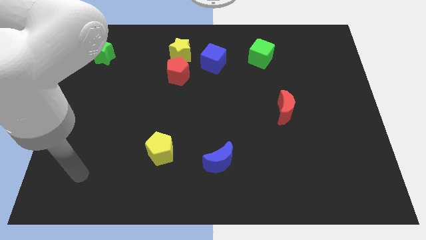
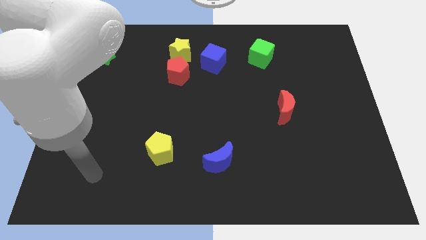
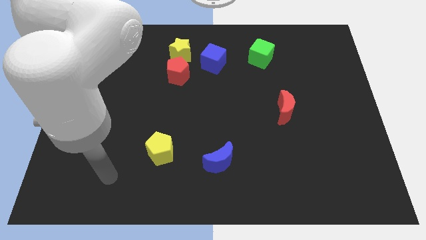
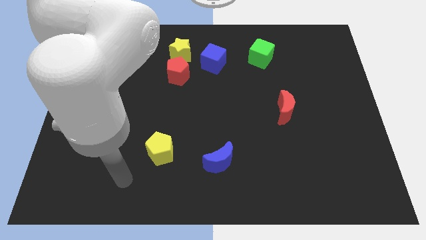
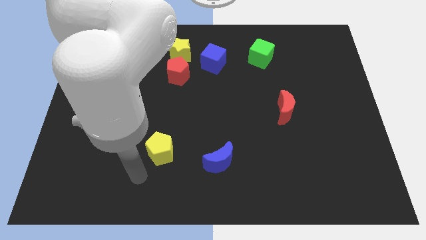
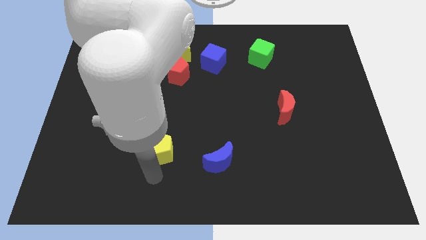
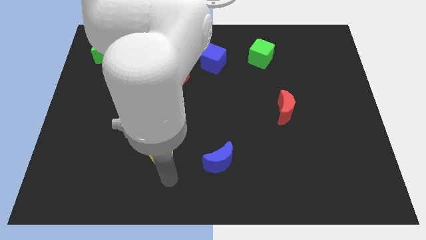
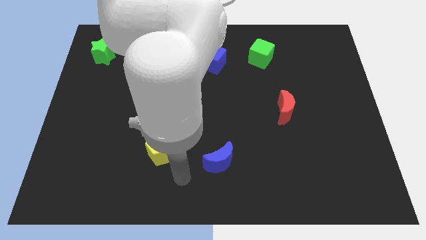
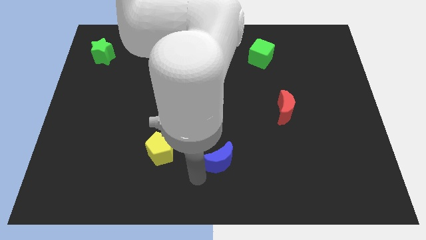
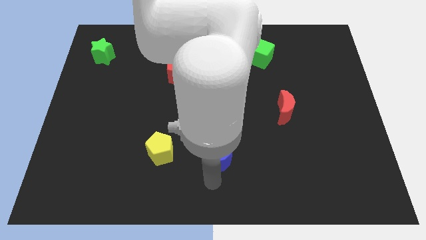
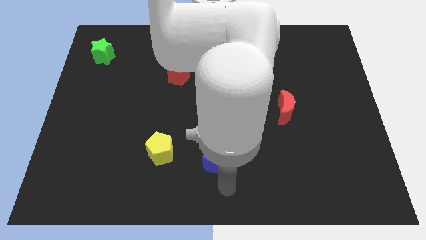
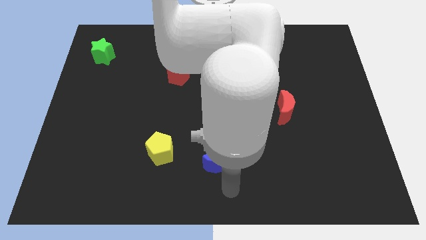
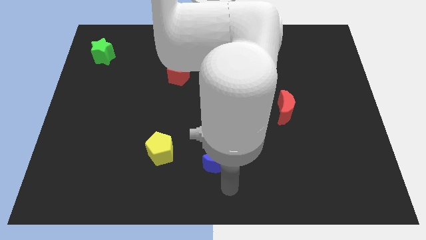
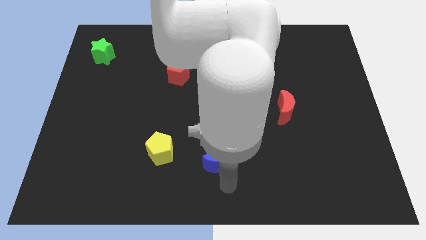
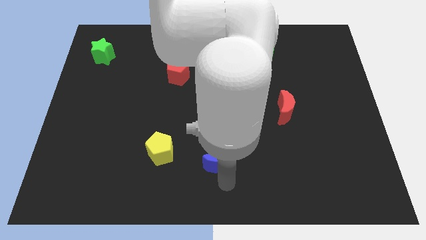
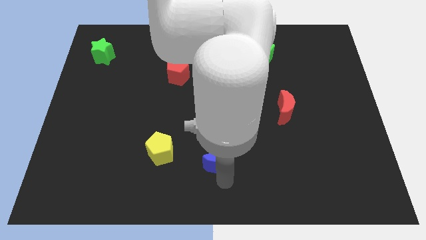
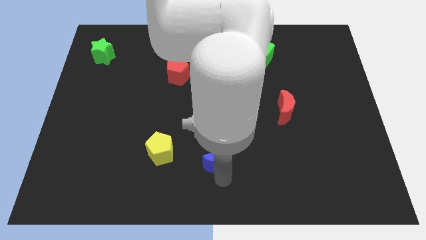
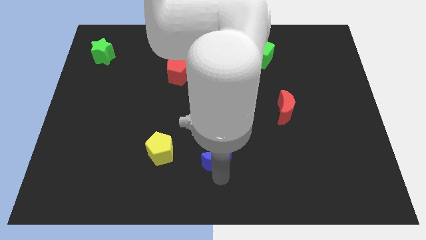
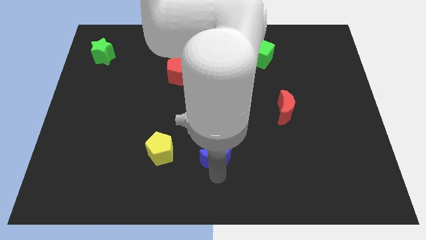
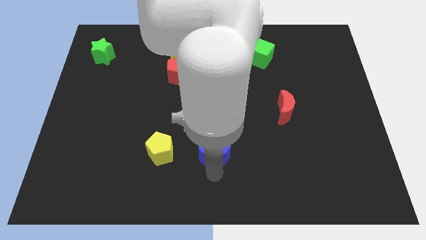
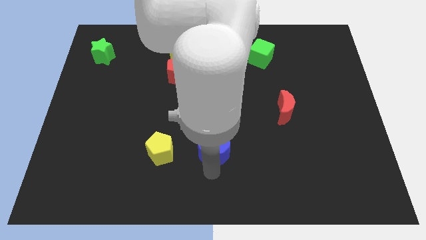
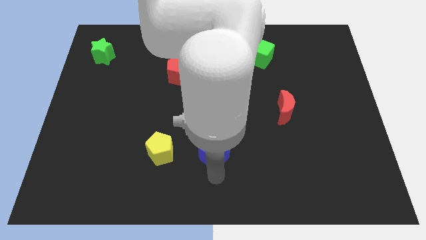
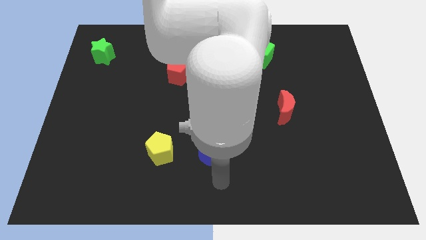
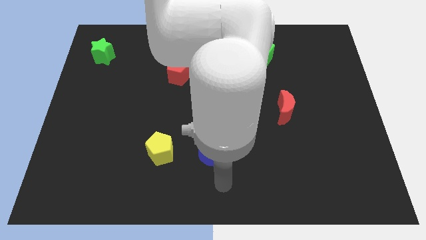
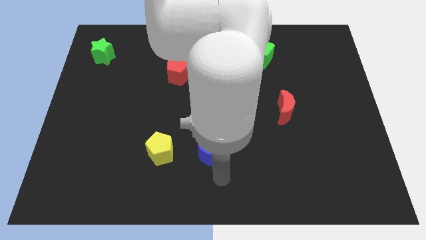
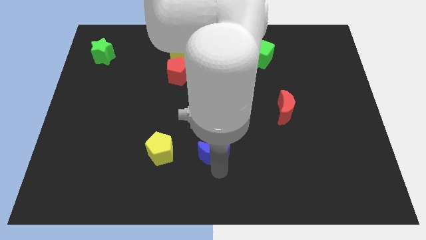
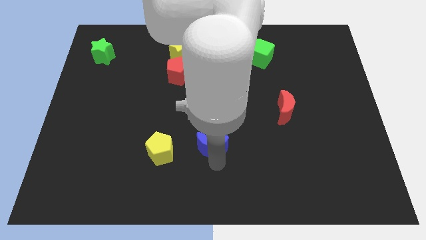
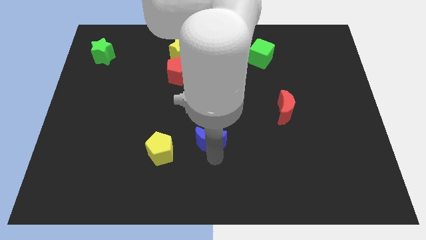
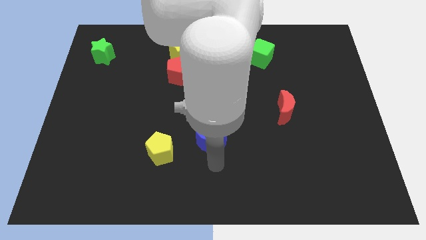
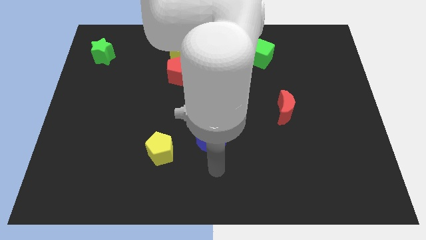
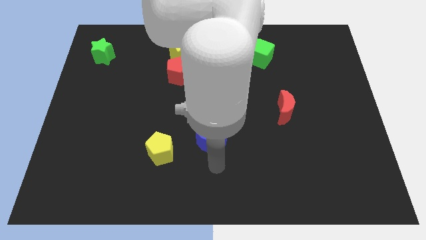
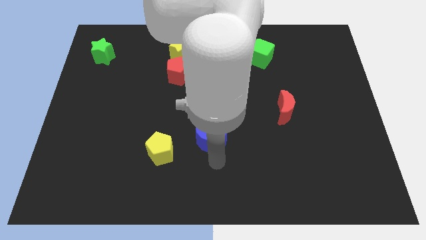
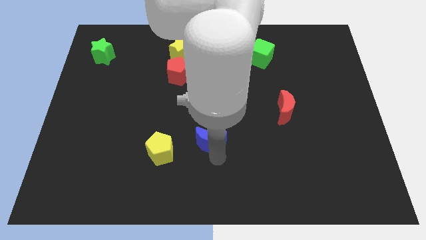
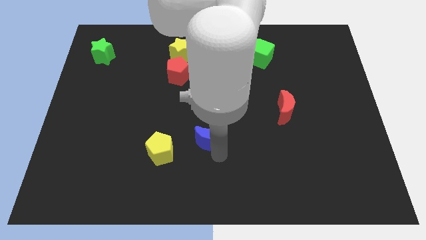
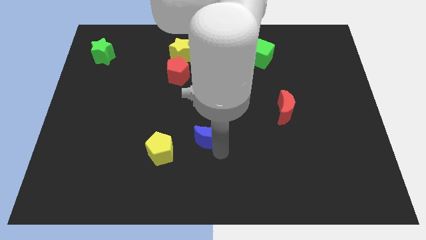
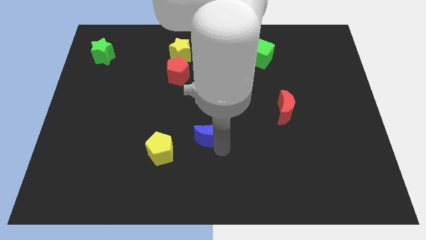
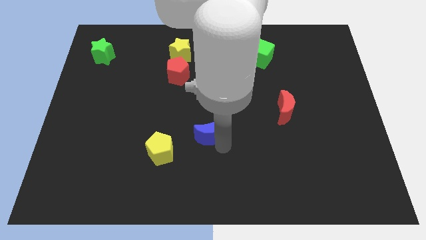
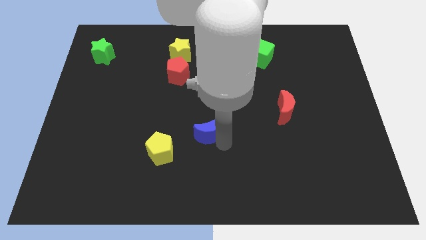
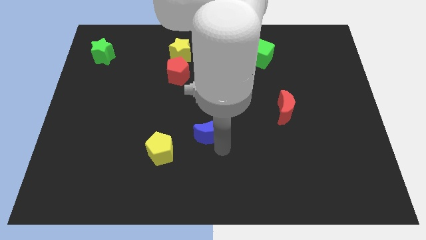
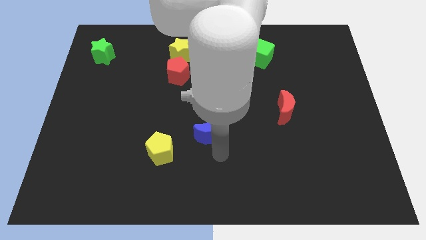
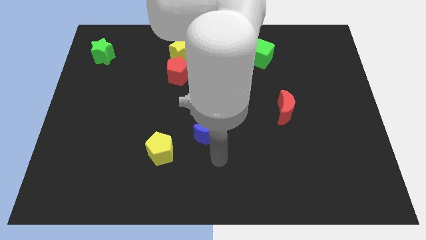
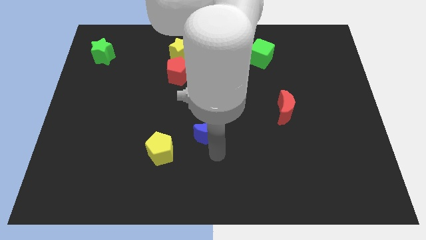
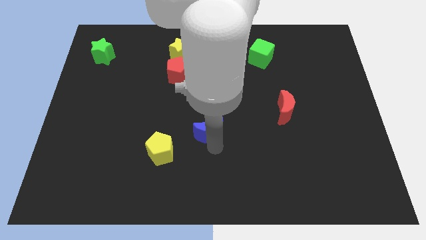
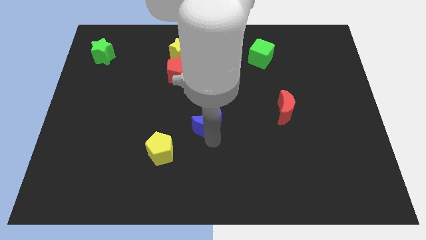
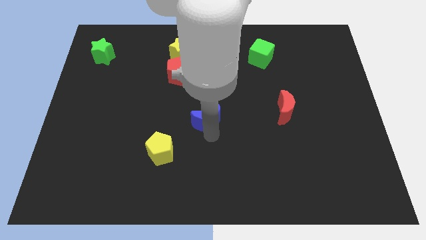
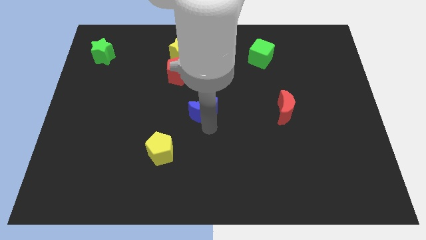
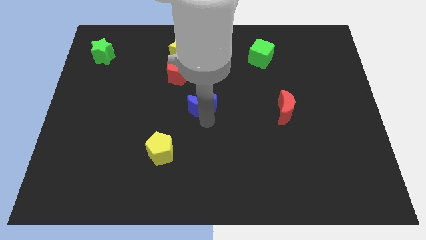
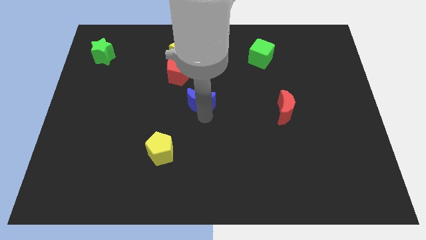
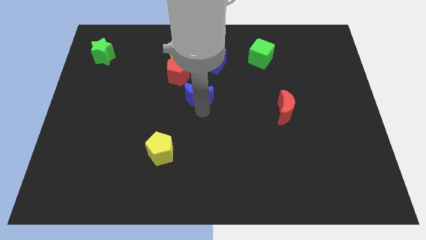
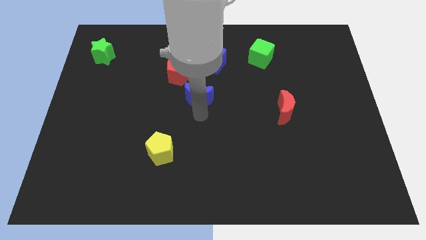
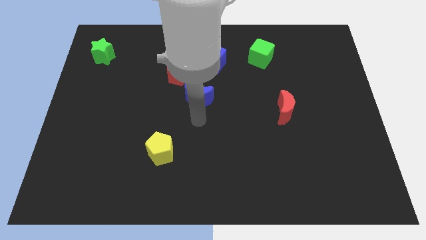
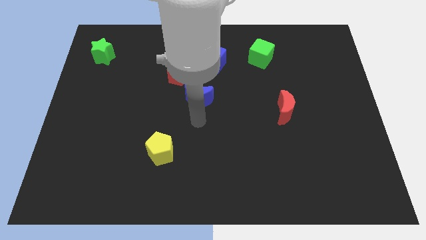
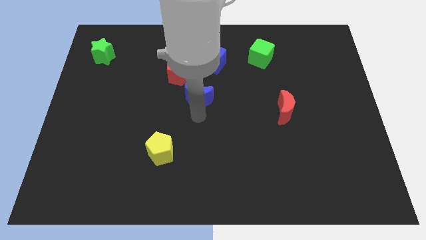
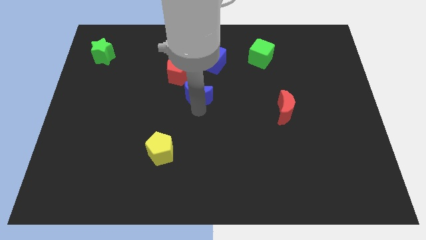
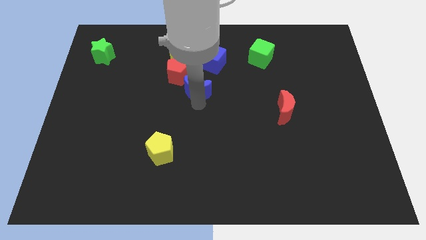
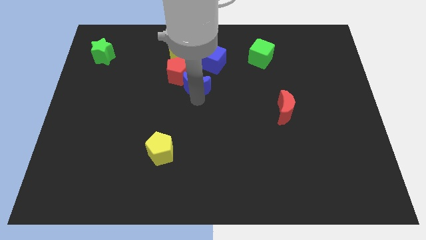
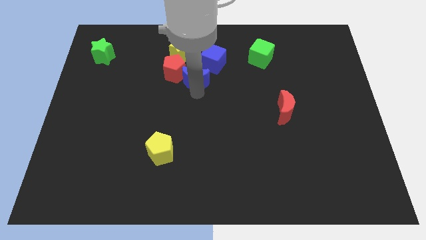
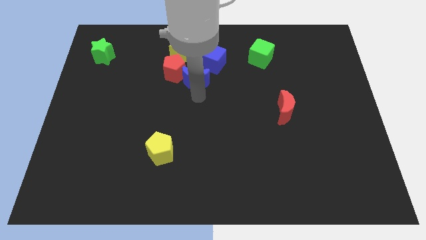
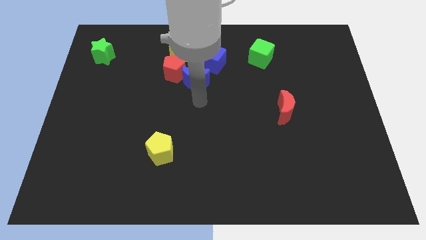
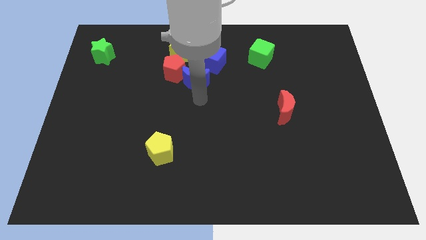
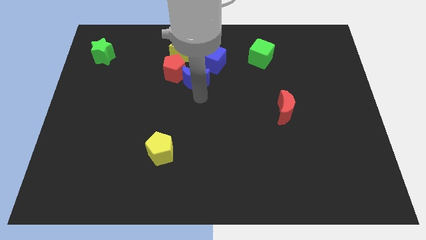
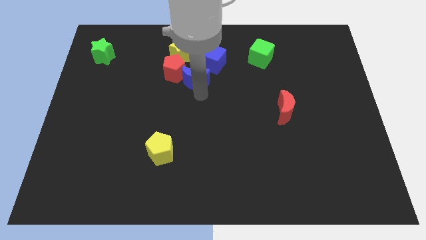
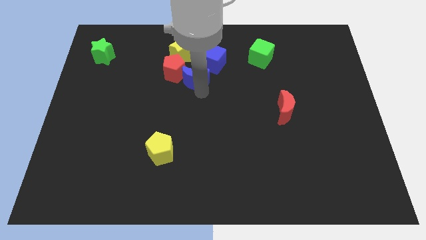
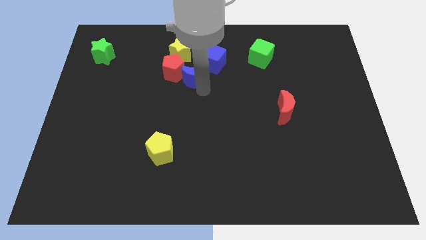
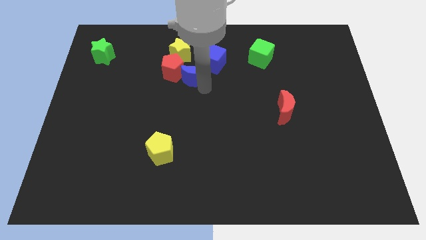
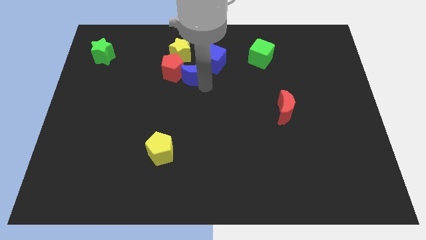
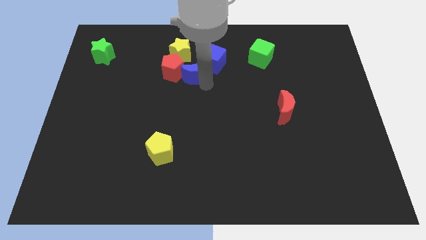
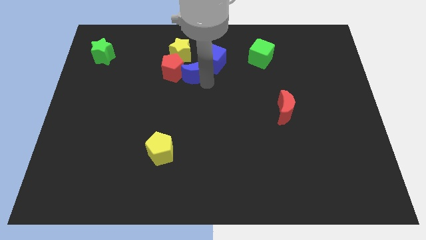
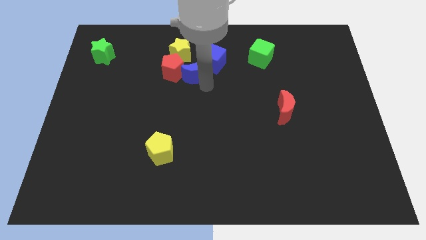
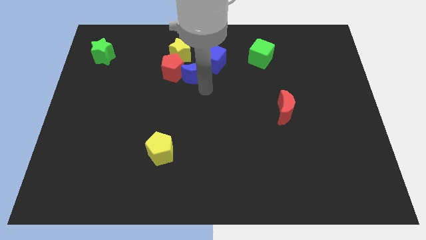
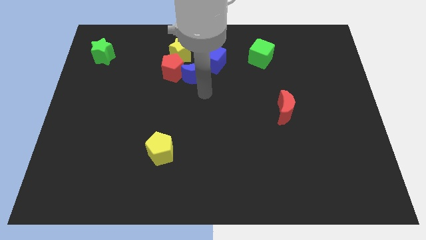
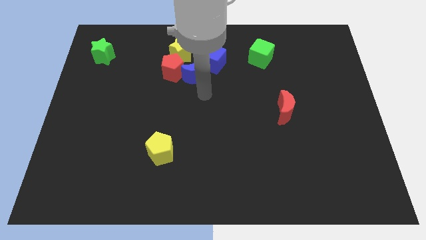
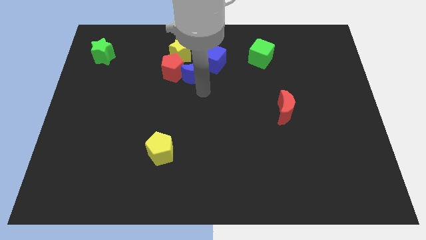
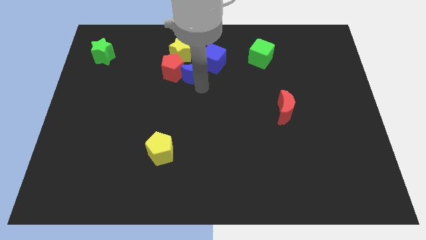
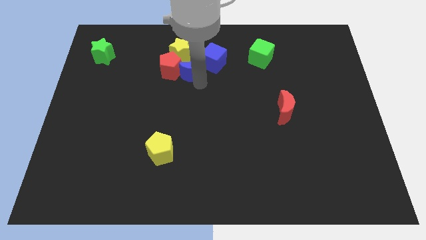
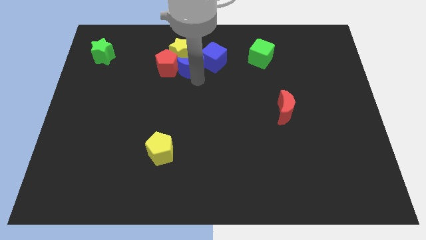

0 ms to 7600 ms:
put the blue moon towards the yellow star

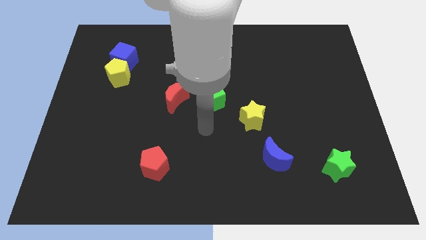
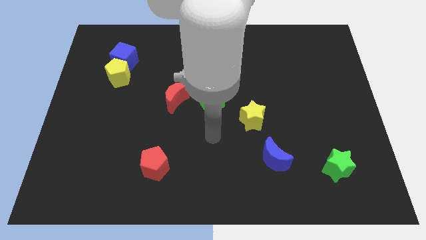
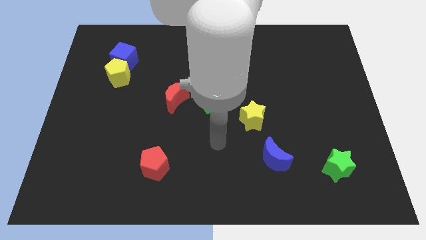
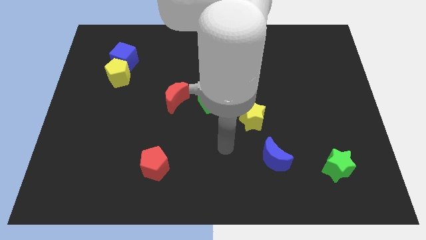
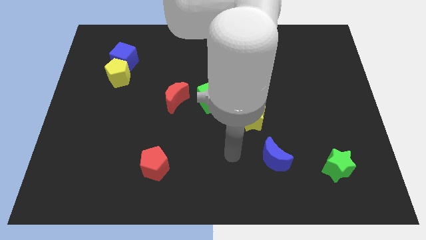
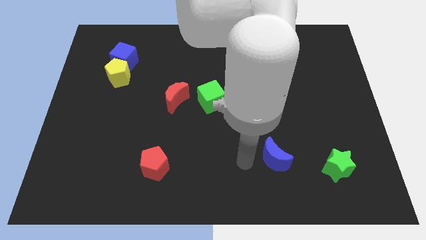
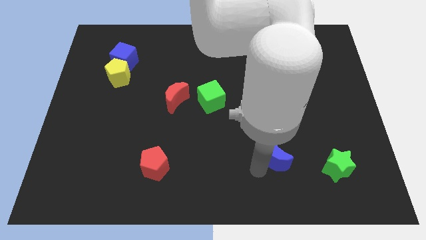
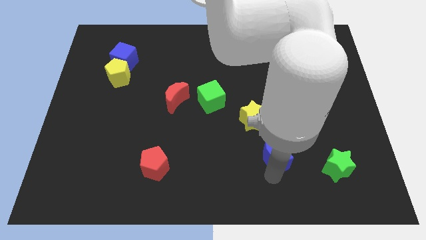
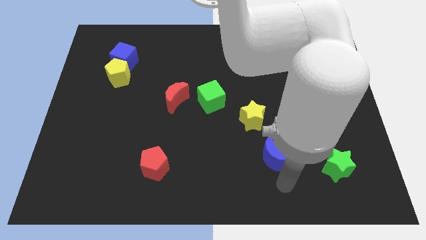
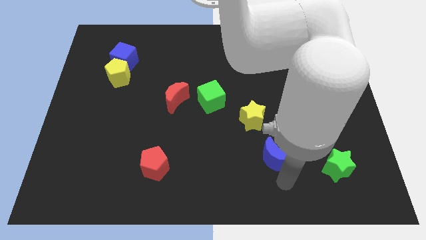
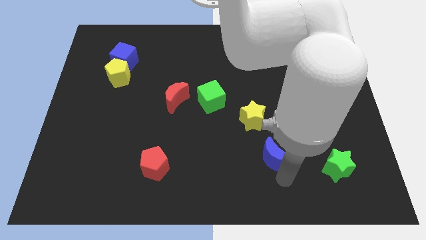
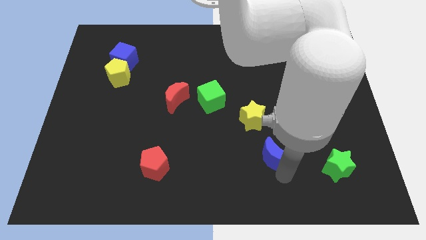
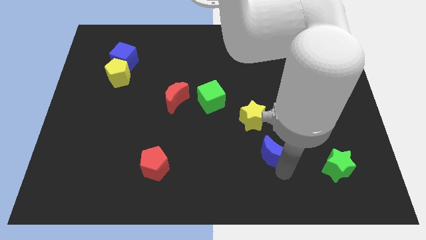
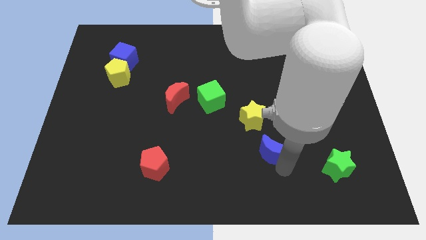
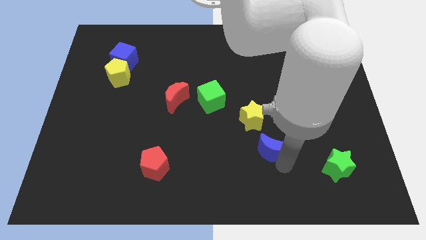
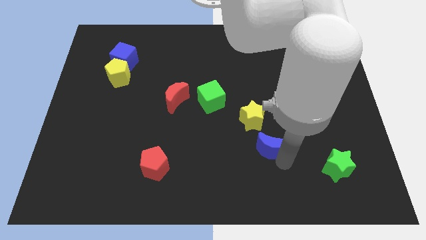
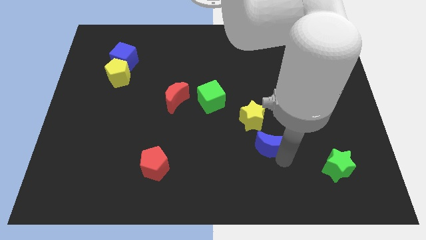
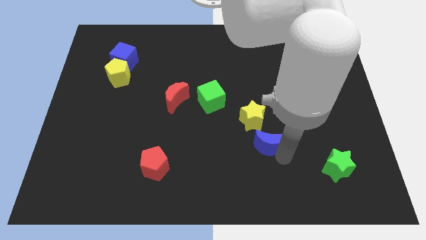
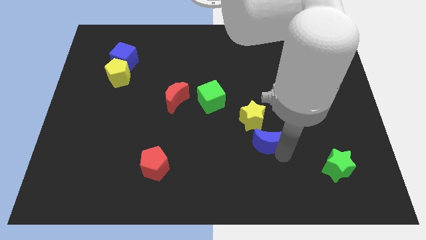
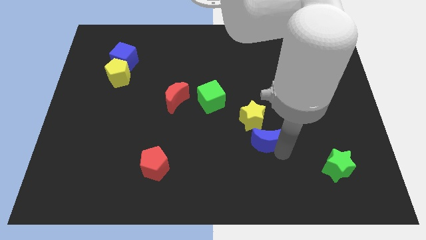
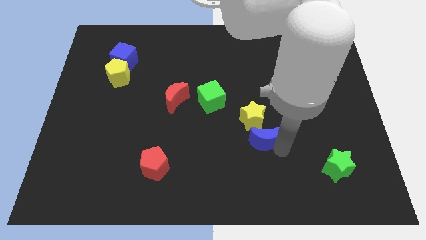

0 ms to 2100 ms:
put the blue moon close to the yellow star
